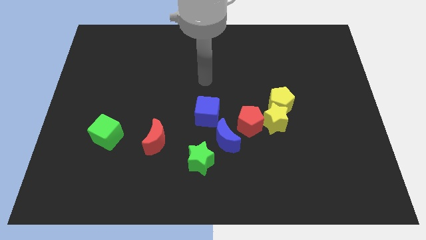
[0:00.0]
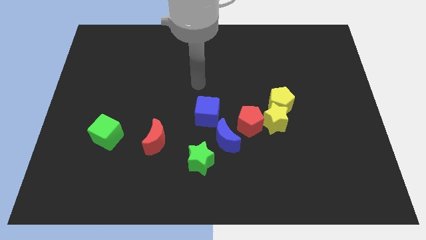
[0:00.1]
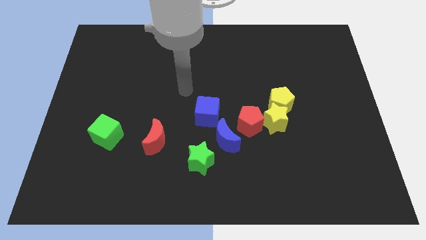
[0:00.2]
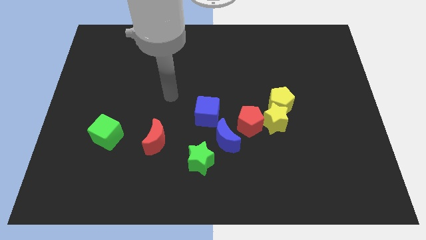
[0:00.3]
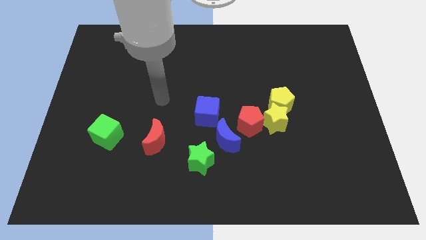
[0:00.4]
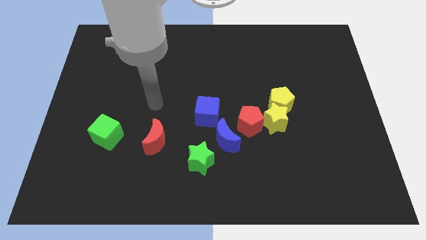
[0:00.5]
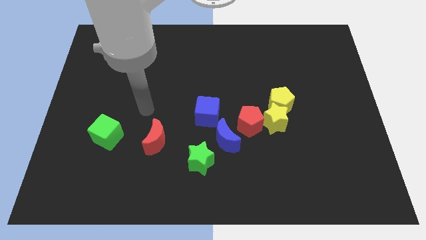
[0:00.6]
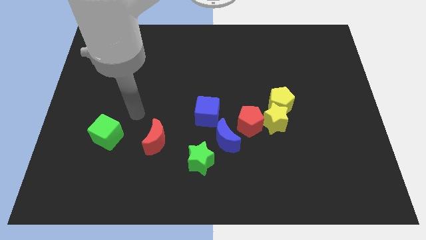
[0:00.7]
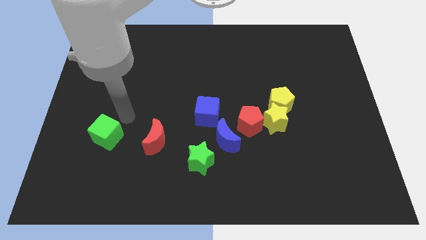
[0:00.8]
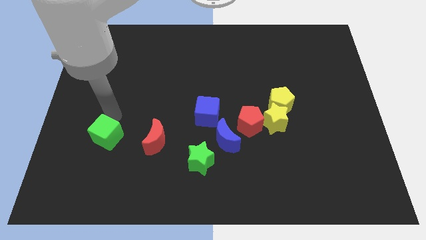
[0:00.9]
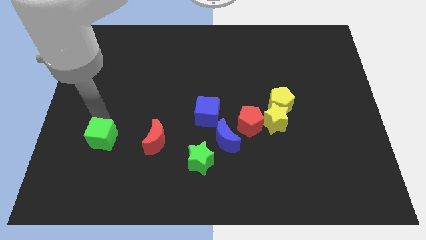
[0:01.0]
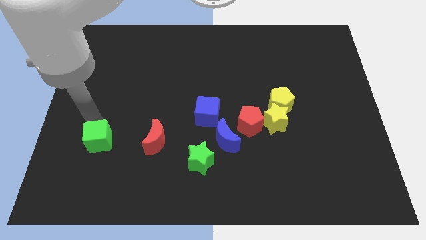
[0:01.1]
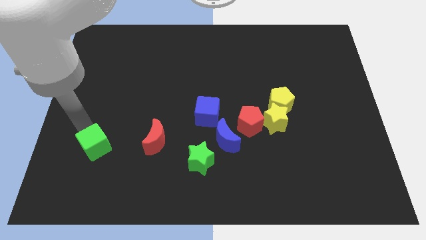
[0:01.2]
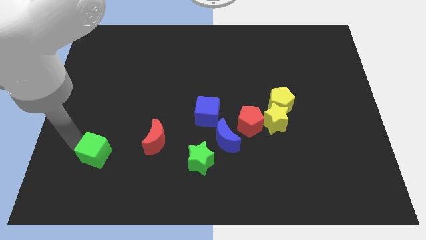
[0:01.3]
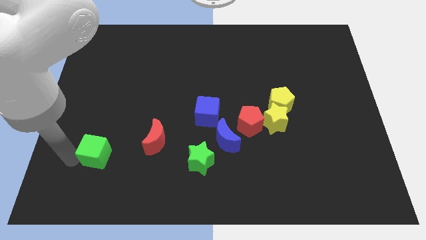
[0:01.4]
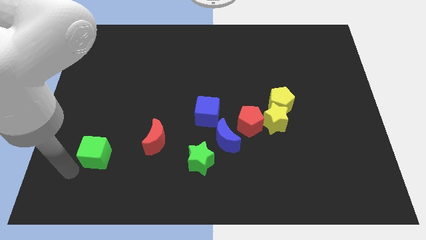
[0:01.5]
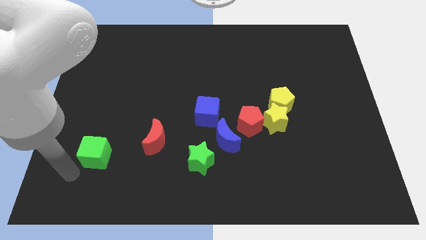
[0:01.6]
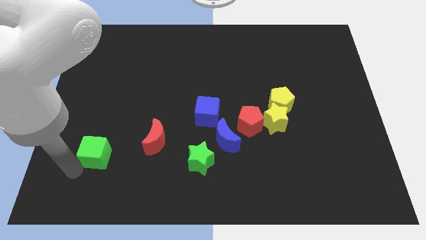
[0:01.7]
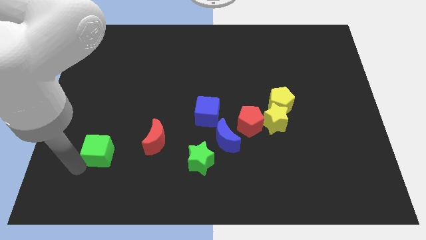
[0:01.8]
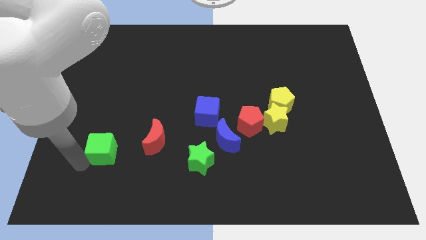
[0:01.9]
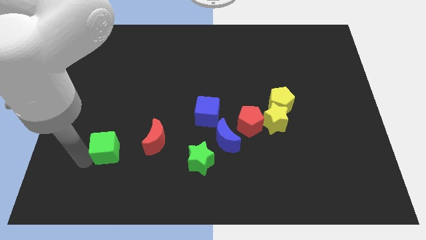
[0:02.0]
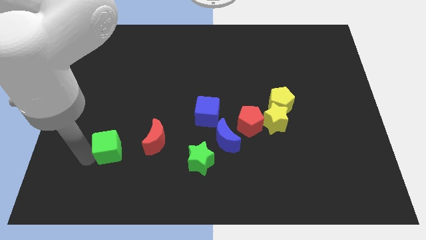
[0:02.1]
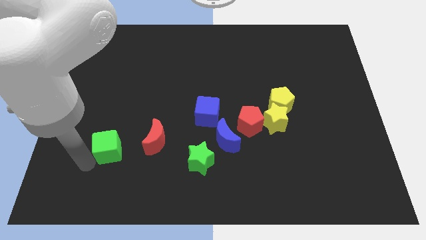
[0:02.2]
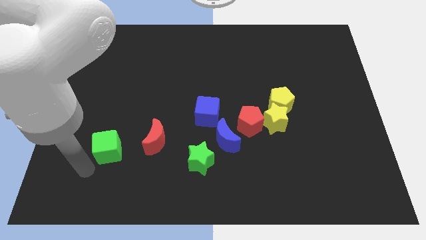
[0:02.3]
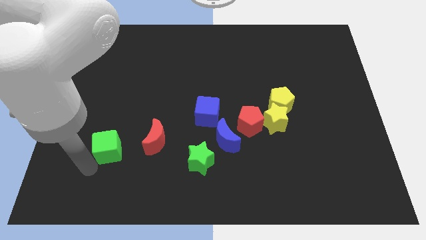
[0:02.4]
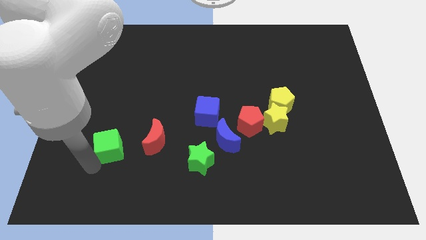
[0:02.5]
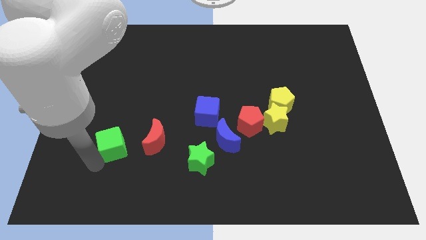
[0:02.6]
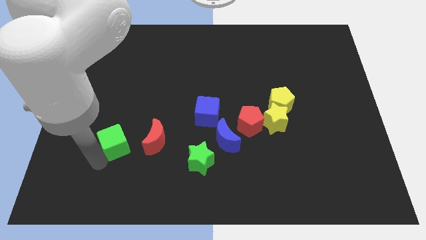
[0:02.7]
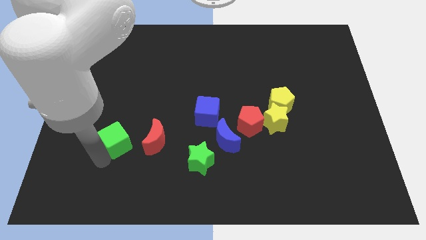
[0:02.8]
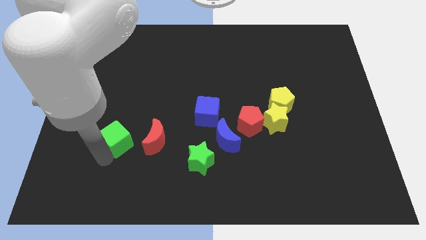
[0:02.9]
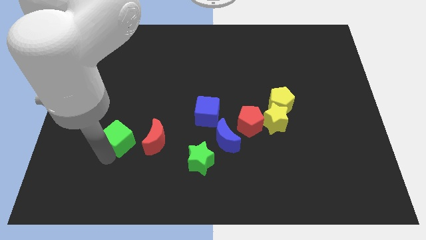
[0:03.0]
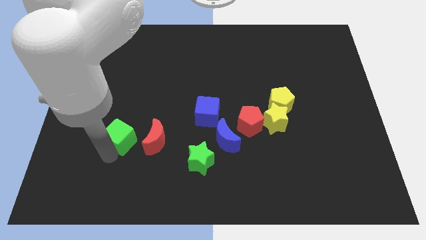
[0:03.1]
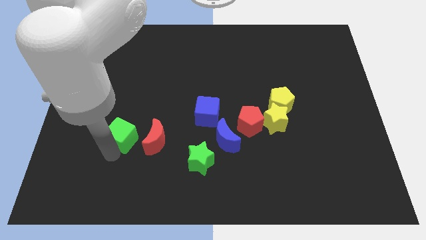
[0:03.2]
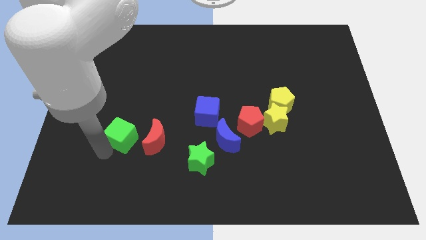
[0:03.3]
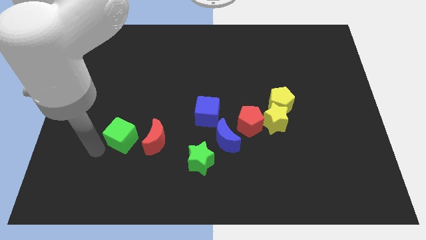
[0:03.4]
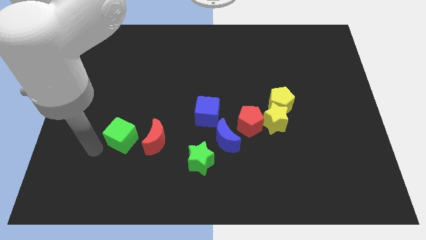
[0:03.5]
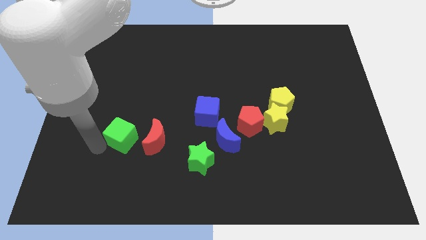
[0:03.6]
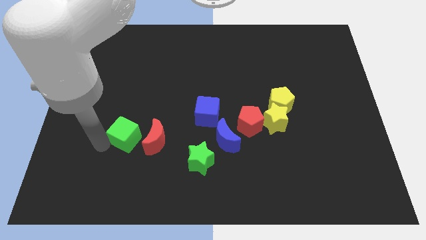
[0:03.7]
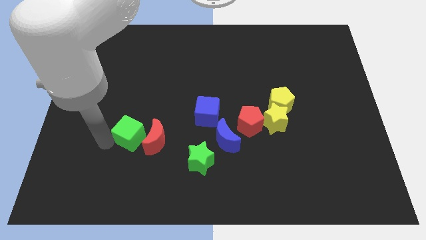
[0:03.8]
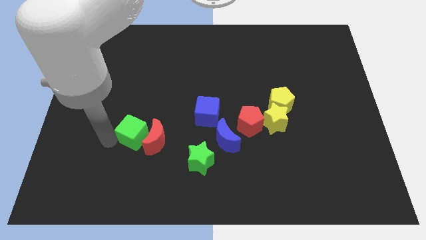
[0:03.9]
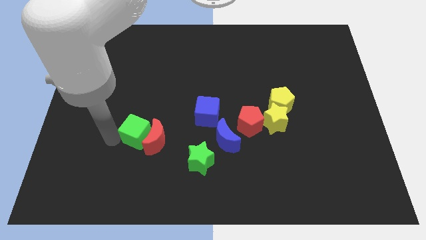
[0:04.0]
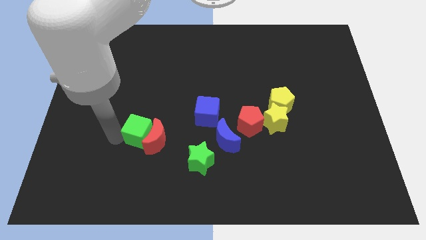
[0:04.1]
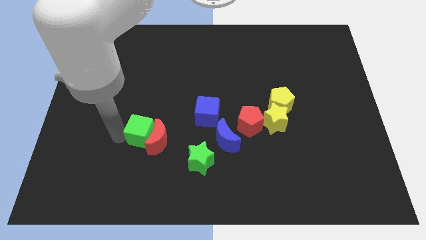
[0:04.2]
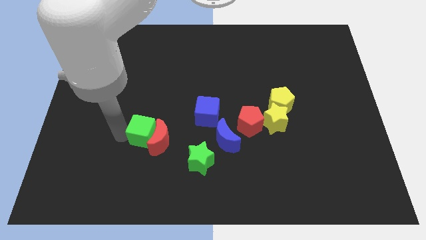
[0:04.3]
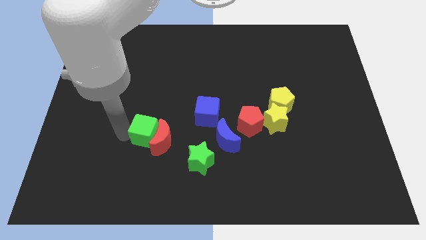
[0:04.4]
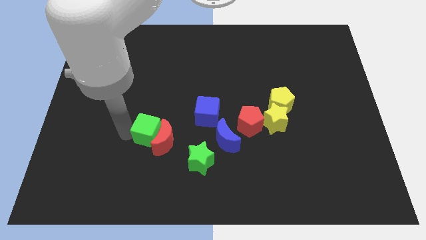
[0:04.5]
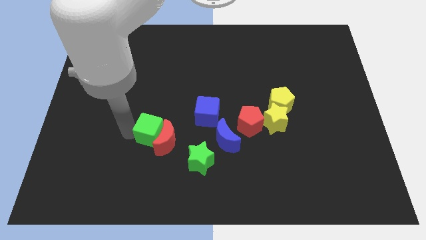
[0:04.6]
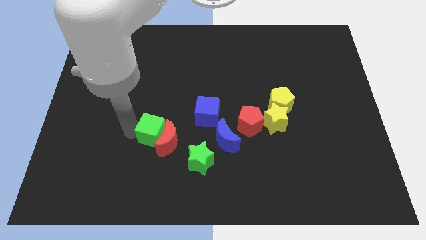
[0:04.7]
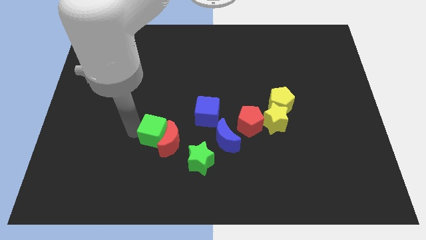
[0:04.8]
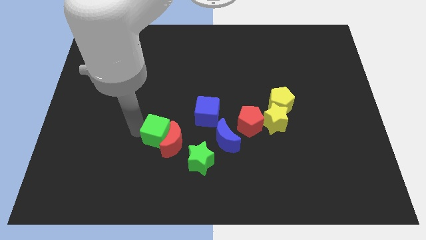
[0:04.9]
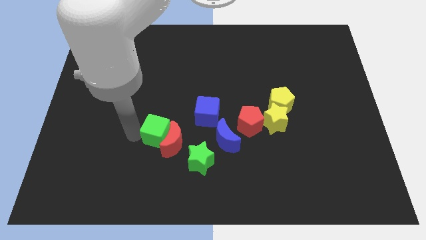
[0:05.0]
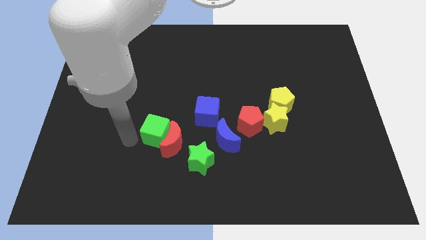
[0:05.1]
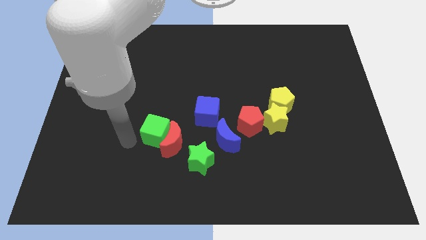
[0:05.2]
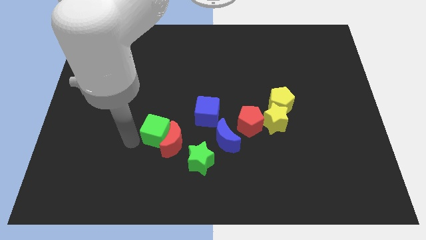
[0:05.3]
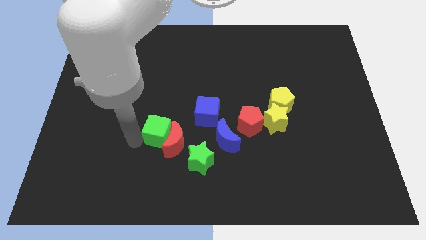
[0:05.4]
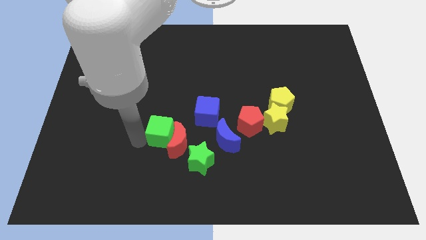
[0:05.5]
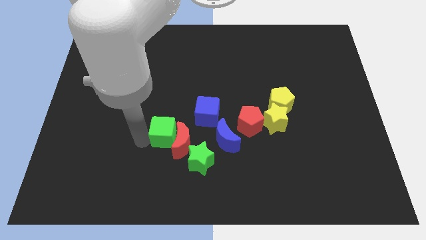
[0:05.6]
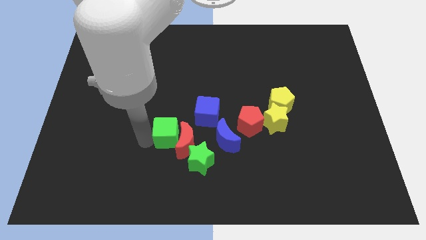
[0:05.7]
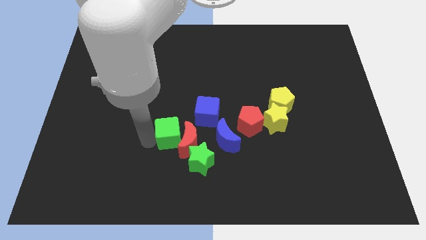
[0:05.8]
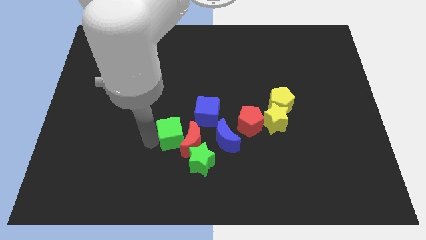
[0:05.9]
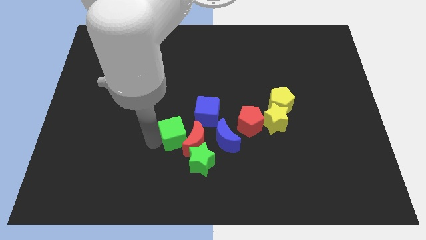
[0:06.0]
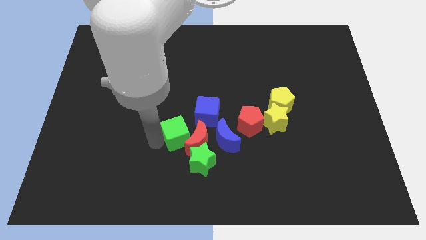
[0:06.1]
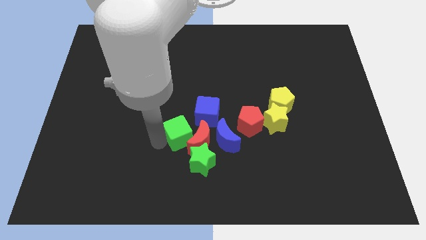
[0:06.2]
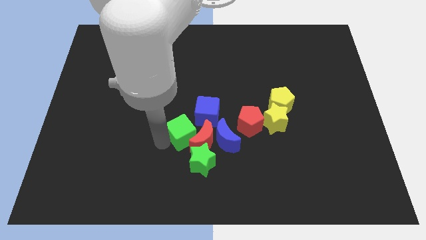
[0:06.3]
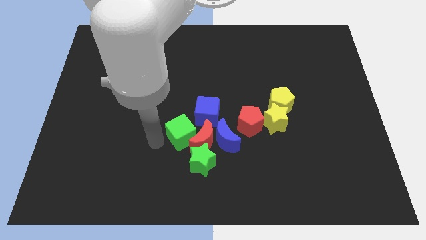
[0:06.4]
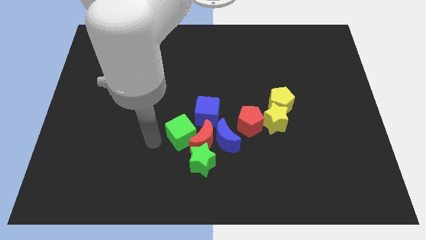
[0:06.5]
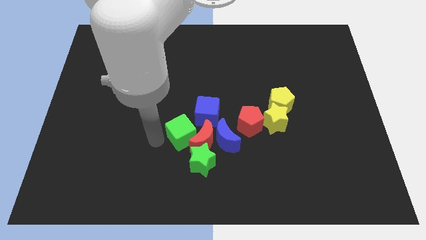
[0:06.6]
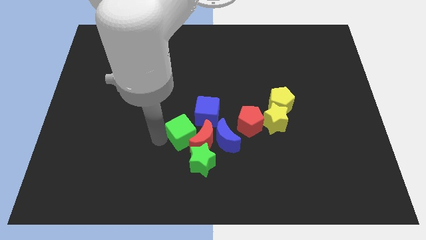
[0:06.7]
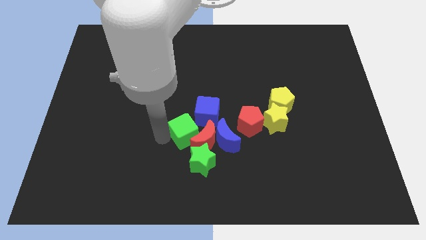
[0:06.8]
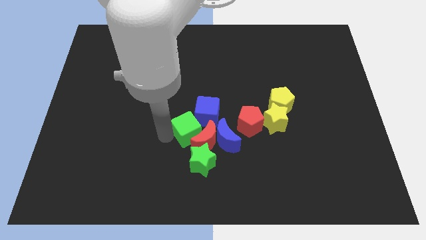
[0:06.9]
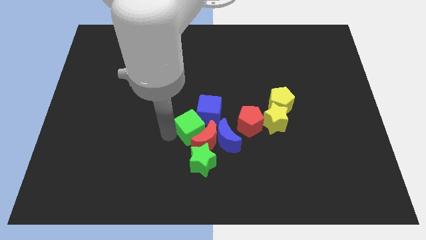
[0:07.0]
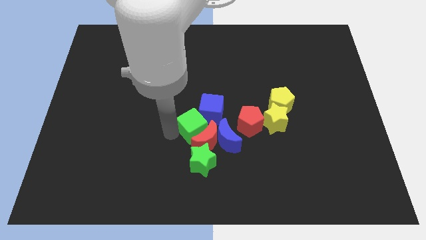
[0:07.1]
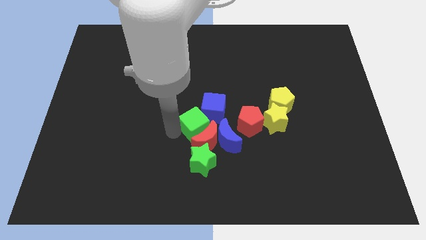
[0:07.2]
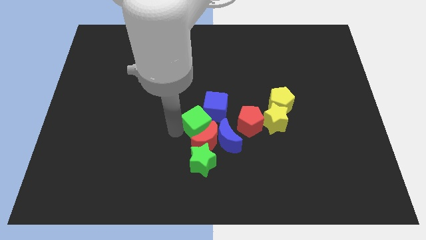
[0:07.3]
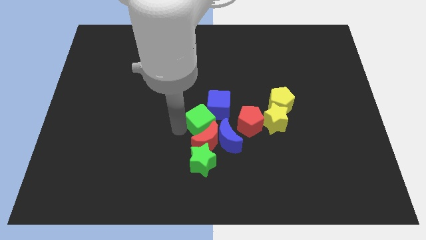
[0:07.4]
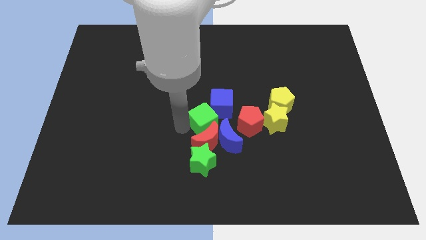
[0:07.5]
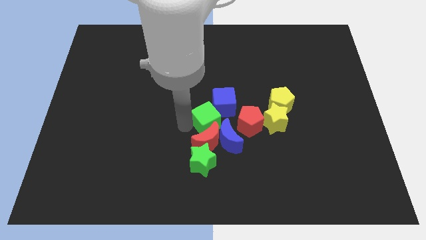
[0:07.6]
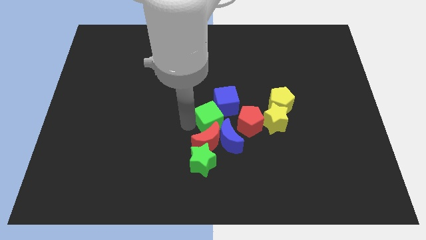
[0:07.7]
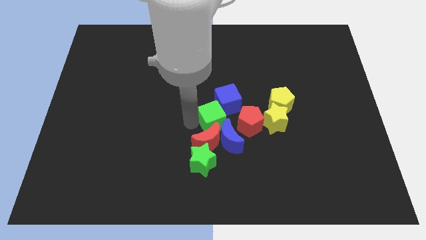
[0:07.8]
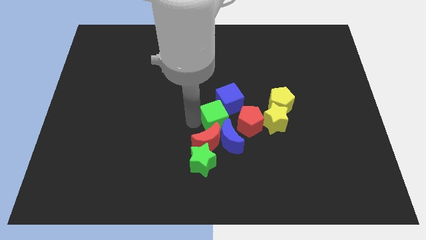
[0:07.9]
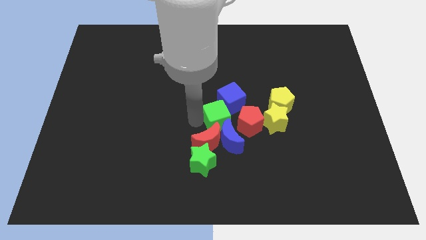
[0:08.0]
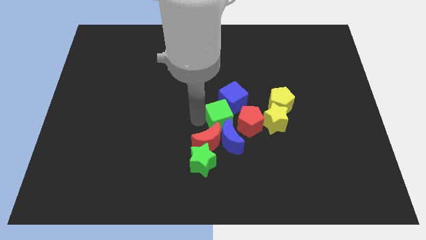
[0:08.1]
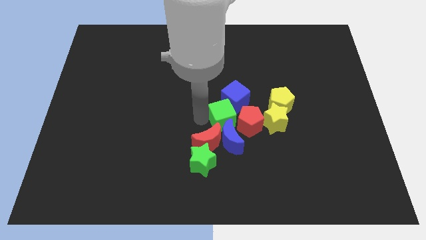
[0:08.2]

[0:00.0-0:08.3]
put the green cube next to the red pentagon
